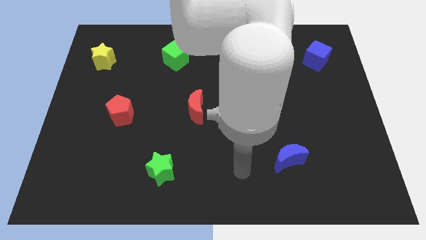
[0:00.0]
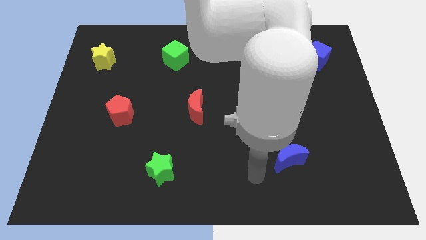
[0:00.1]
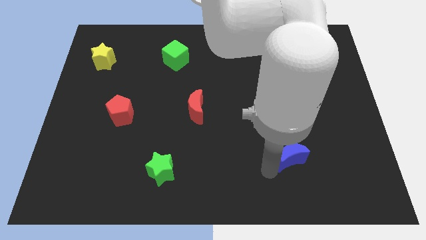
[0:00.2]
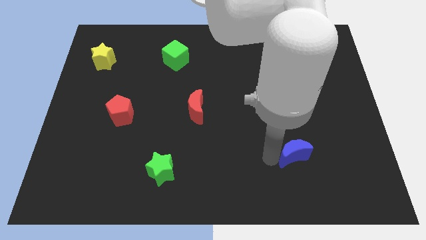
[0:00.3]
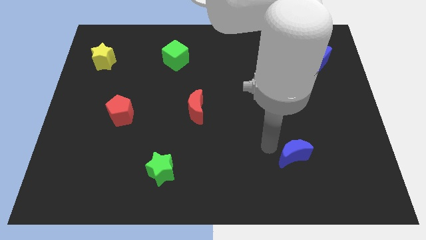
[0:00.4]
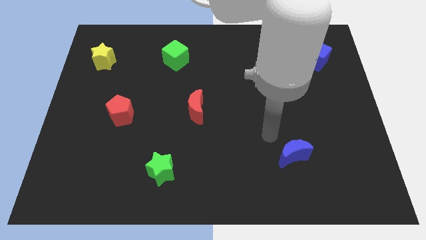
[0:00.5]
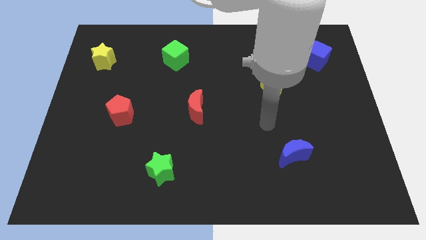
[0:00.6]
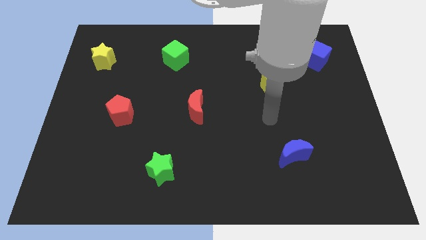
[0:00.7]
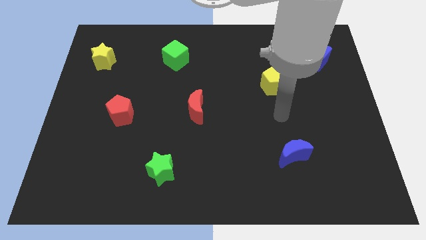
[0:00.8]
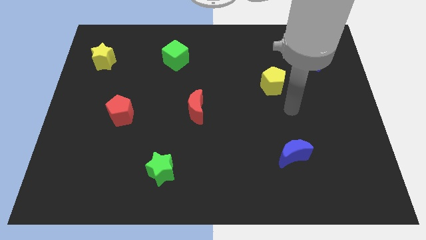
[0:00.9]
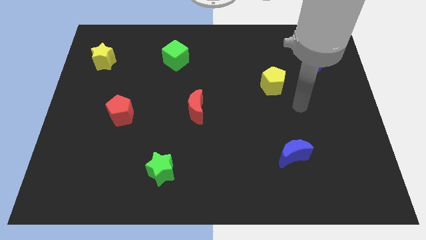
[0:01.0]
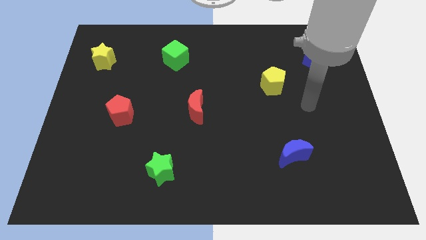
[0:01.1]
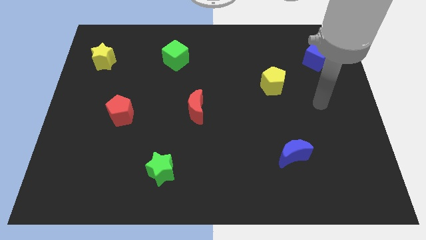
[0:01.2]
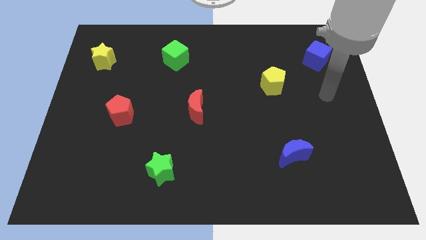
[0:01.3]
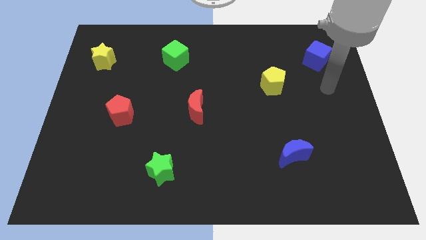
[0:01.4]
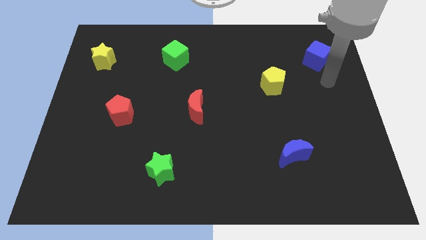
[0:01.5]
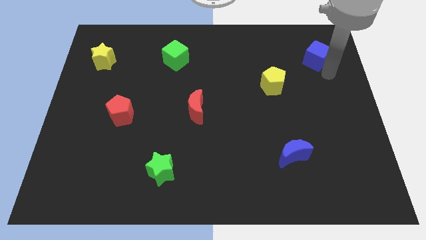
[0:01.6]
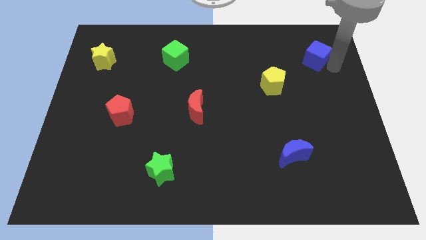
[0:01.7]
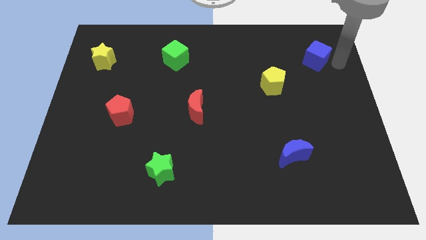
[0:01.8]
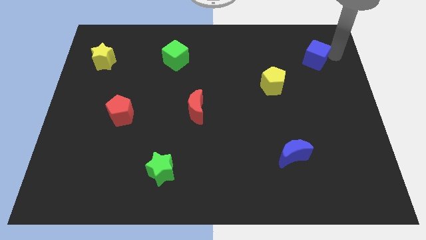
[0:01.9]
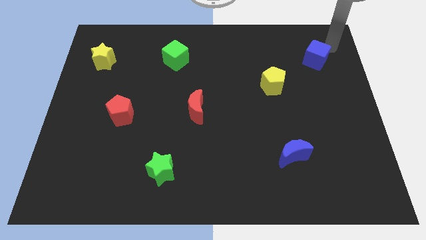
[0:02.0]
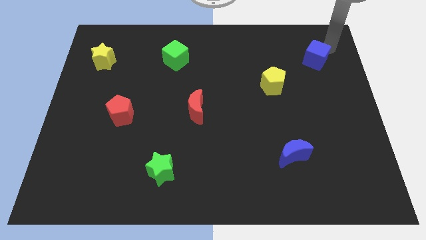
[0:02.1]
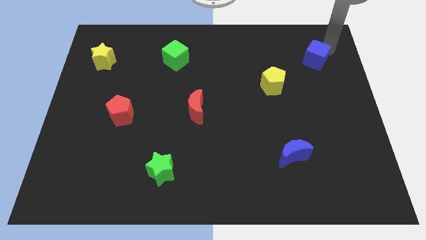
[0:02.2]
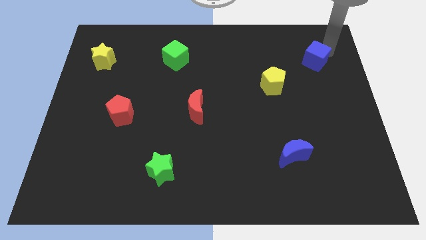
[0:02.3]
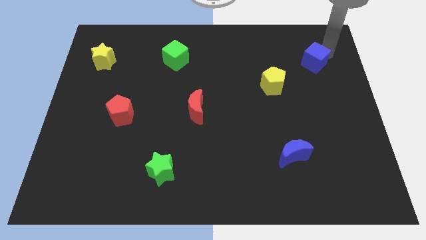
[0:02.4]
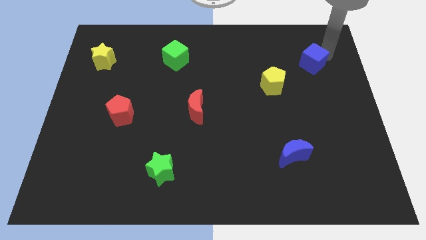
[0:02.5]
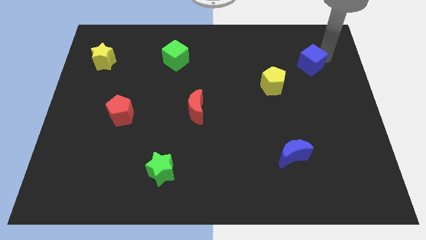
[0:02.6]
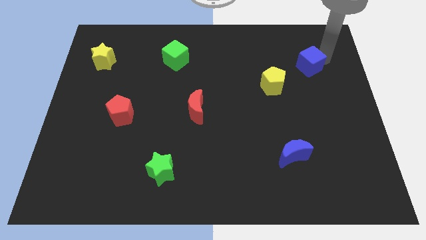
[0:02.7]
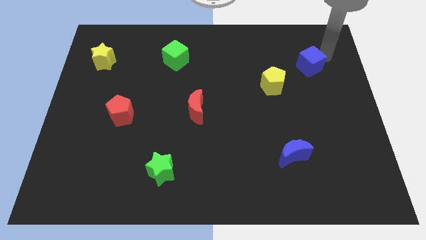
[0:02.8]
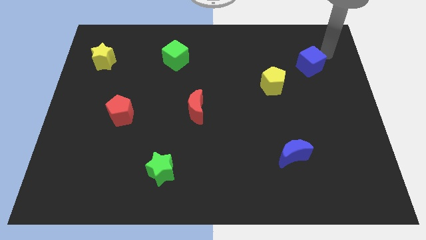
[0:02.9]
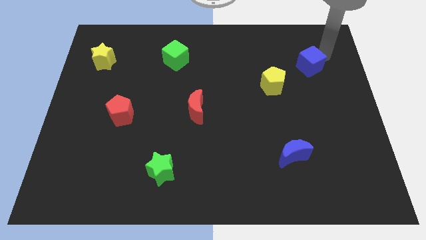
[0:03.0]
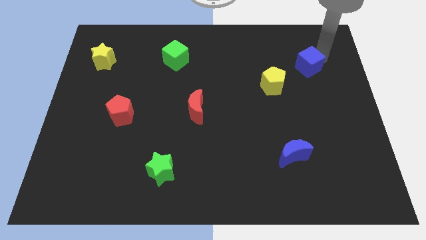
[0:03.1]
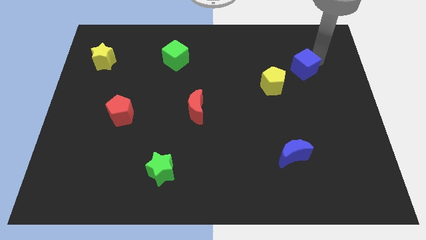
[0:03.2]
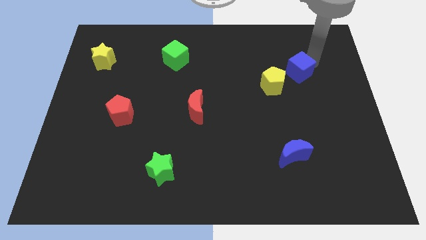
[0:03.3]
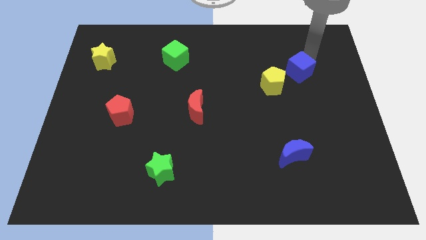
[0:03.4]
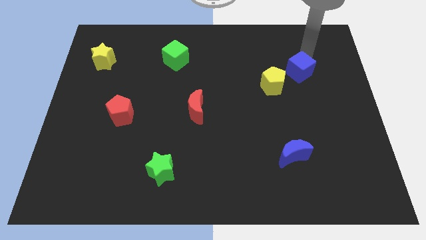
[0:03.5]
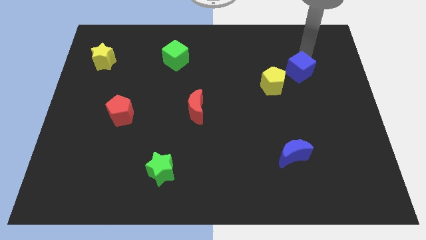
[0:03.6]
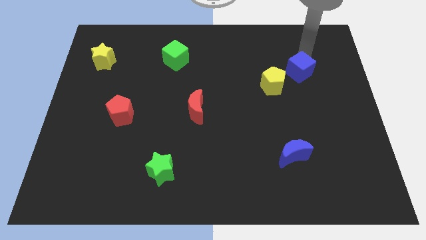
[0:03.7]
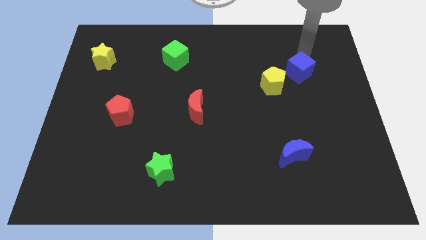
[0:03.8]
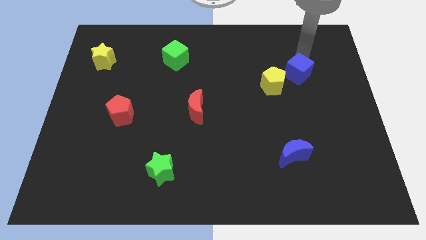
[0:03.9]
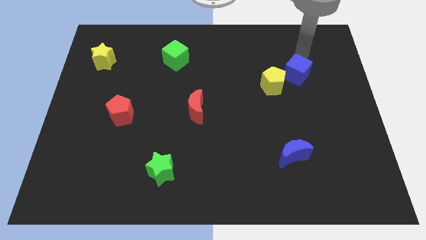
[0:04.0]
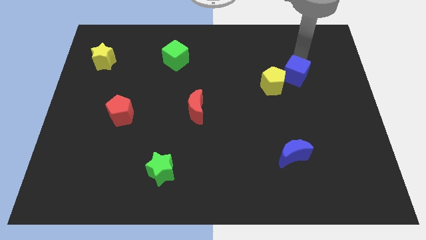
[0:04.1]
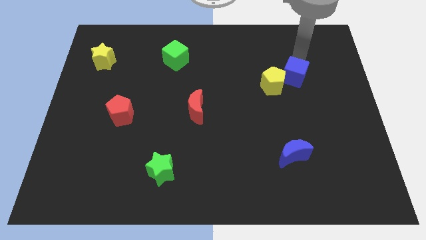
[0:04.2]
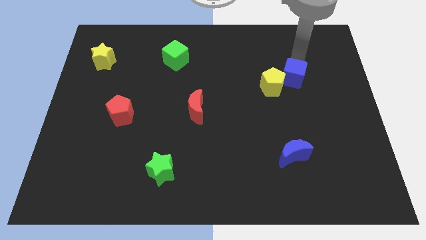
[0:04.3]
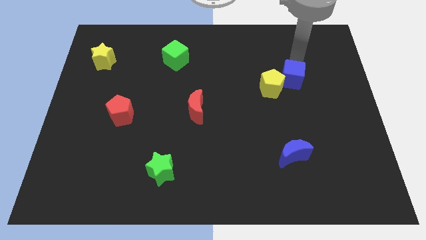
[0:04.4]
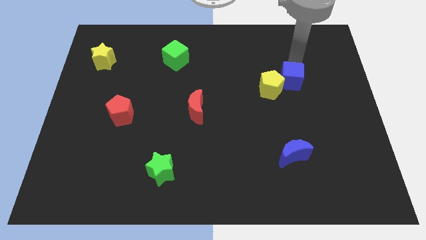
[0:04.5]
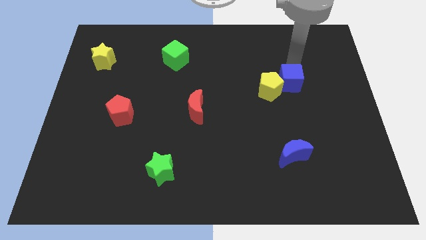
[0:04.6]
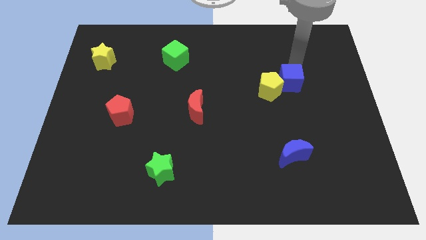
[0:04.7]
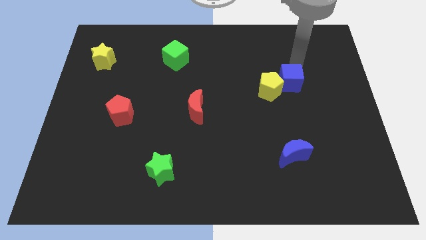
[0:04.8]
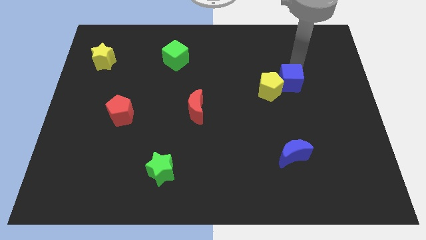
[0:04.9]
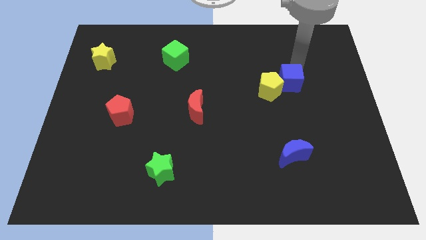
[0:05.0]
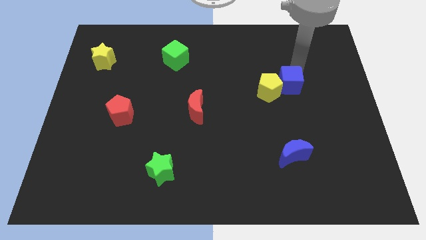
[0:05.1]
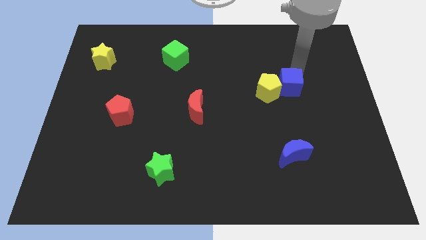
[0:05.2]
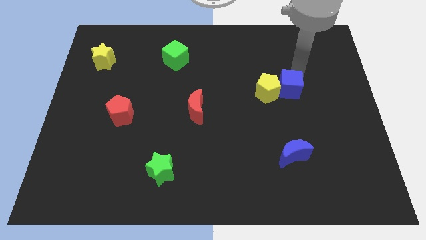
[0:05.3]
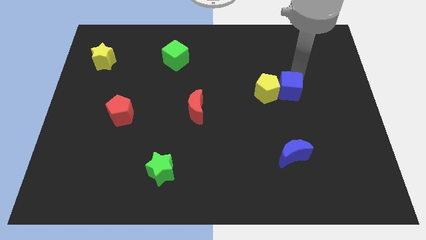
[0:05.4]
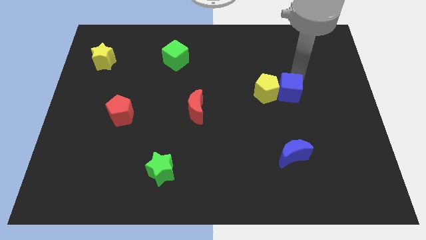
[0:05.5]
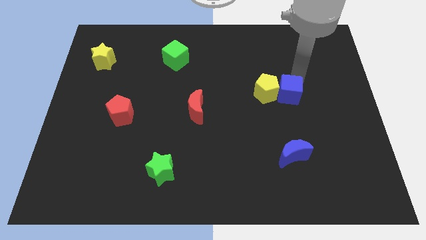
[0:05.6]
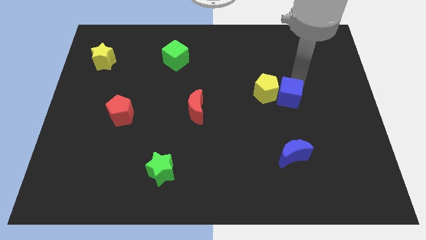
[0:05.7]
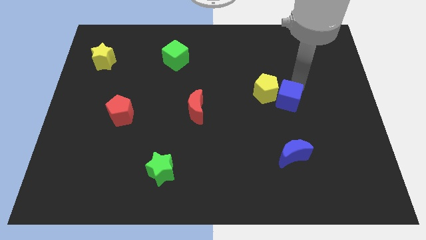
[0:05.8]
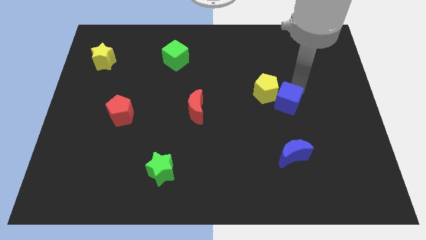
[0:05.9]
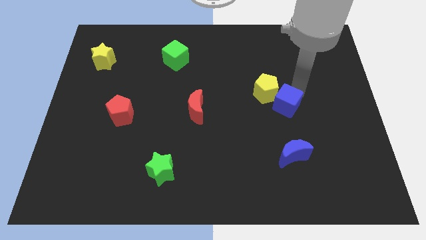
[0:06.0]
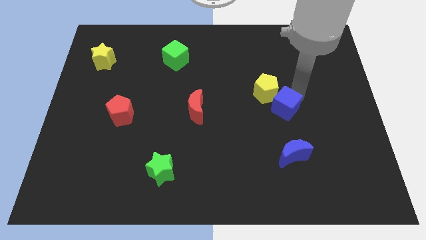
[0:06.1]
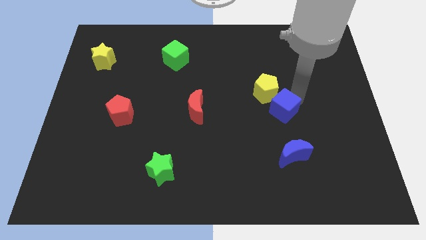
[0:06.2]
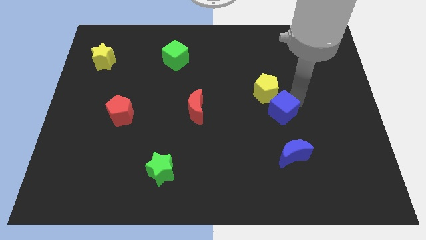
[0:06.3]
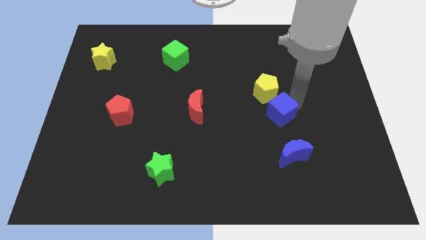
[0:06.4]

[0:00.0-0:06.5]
push the blue cube down and left

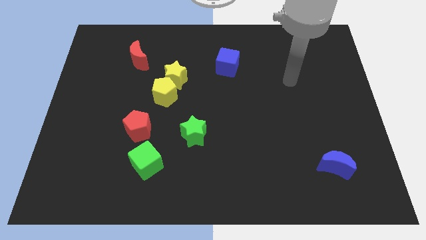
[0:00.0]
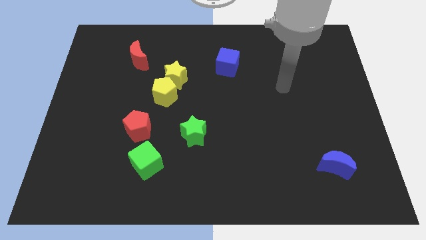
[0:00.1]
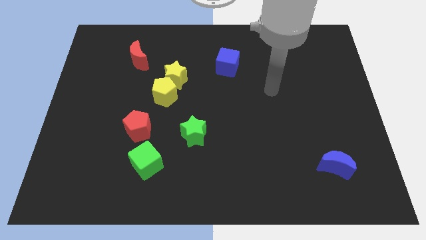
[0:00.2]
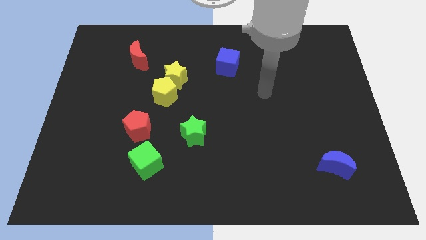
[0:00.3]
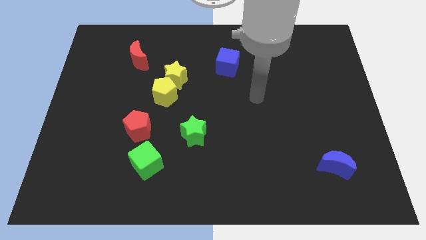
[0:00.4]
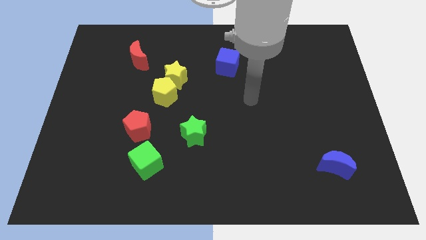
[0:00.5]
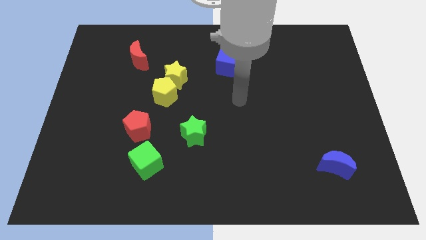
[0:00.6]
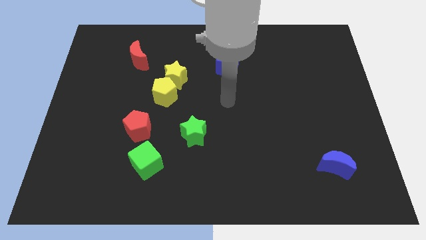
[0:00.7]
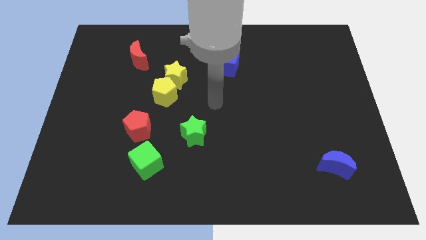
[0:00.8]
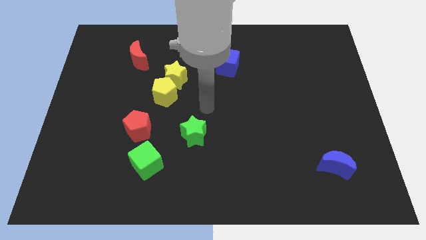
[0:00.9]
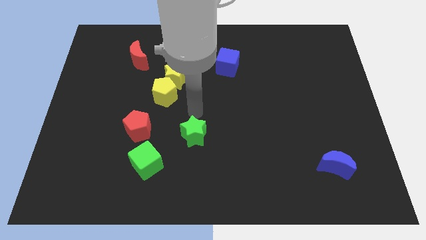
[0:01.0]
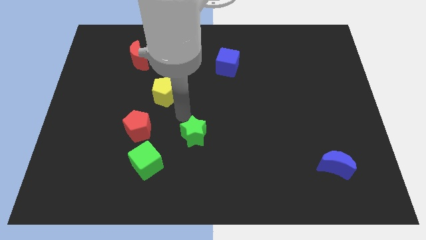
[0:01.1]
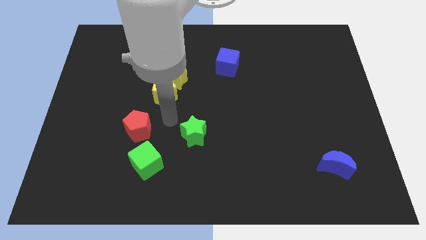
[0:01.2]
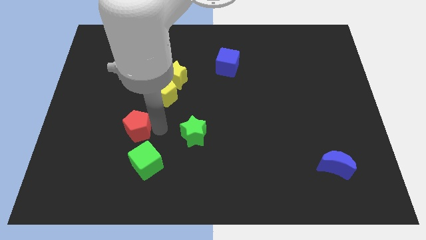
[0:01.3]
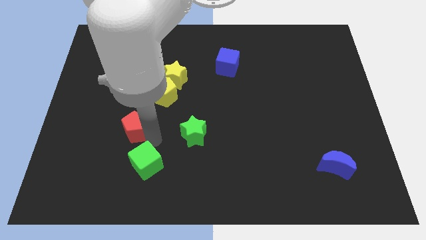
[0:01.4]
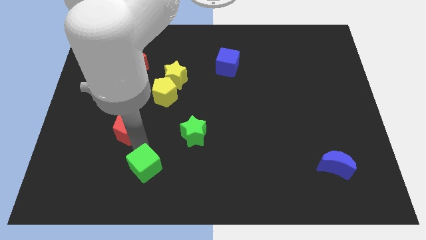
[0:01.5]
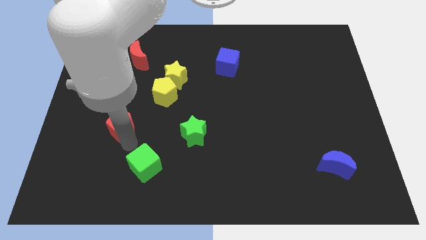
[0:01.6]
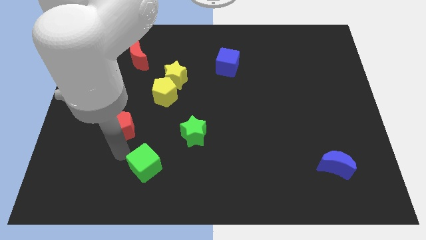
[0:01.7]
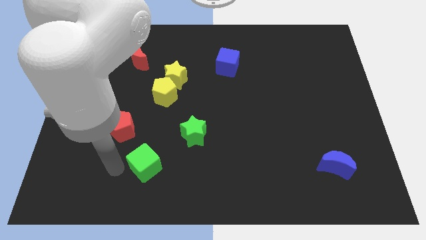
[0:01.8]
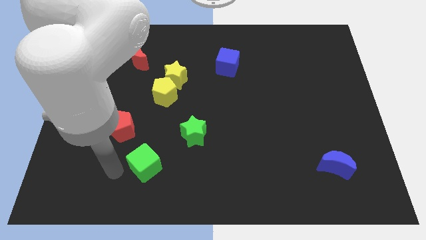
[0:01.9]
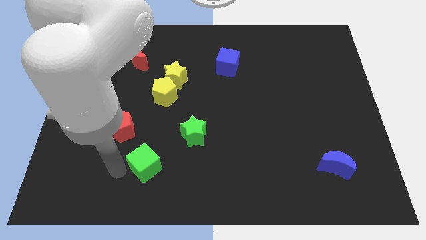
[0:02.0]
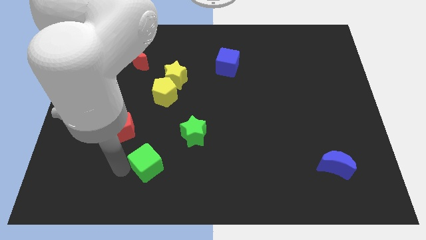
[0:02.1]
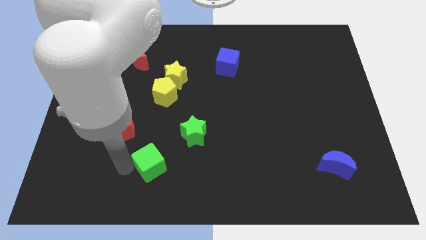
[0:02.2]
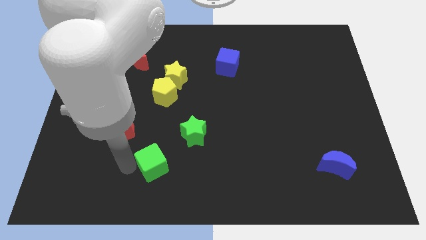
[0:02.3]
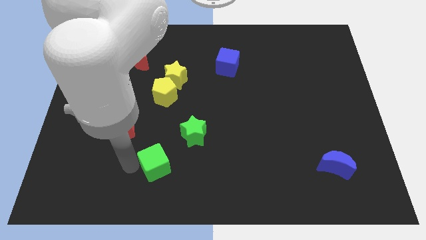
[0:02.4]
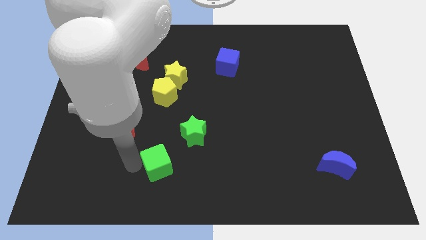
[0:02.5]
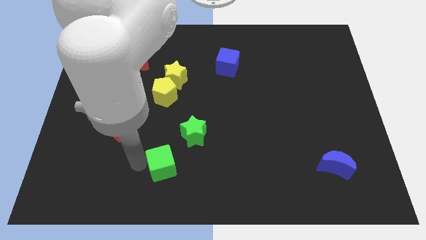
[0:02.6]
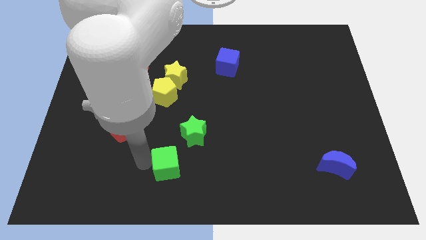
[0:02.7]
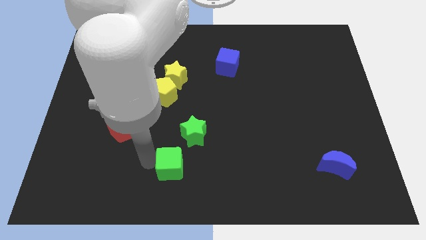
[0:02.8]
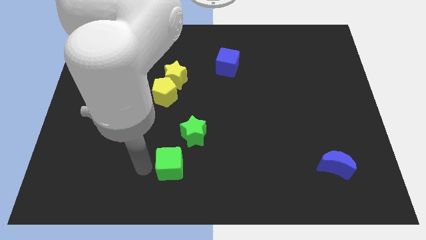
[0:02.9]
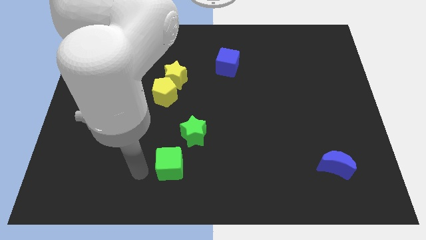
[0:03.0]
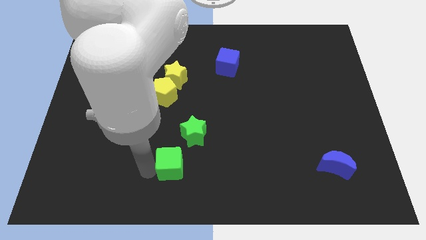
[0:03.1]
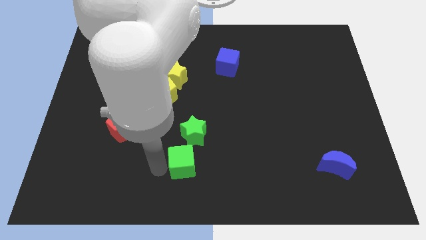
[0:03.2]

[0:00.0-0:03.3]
slightly move the green cube to the right
